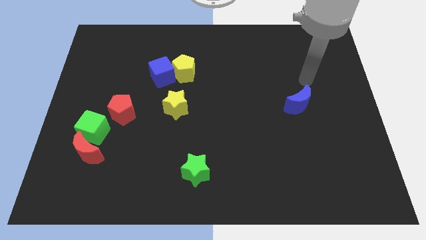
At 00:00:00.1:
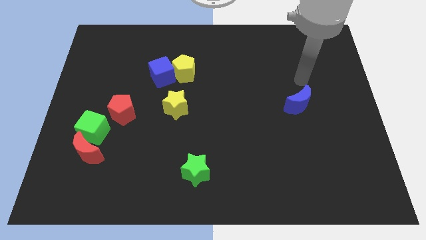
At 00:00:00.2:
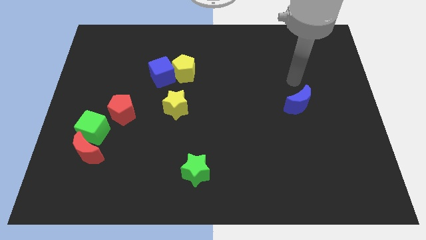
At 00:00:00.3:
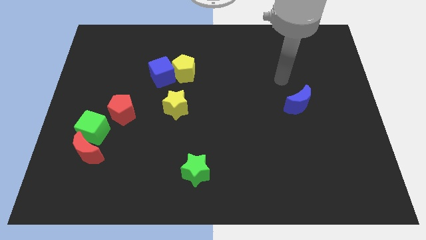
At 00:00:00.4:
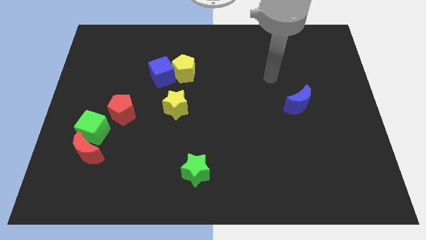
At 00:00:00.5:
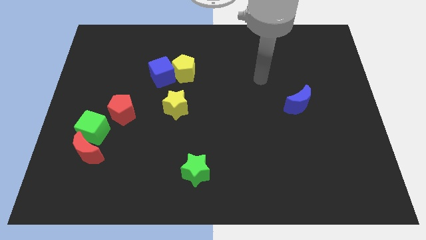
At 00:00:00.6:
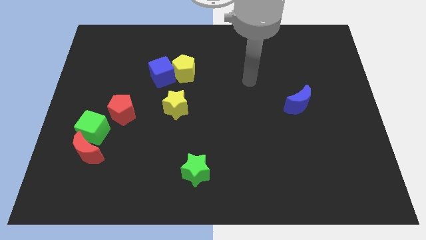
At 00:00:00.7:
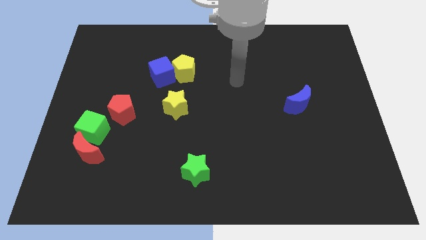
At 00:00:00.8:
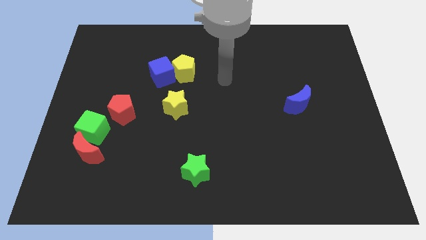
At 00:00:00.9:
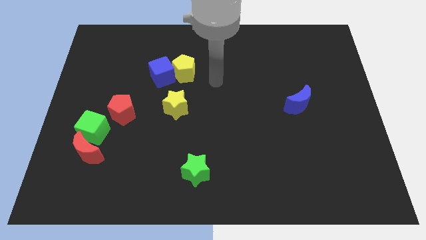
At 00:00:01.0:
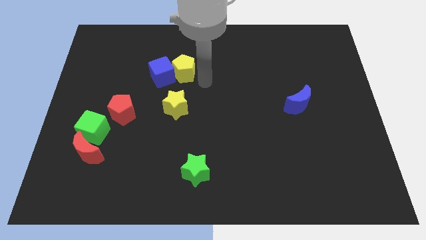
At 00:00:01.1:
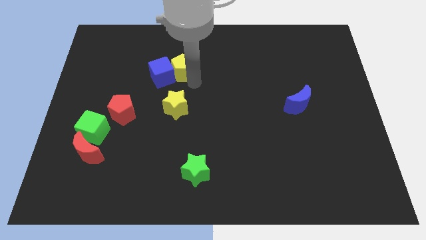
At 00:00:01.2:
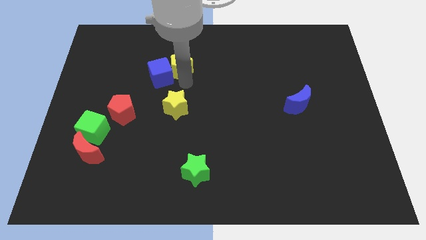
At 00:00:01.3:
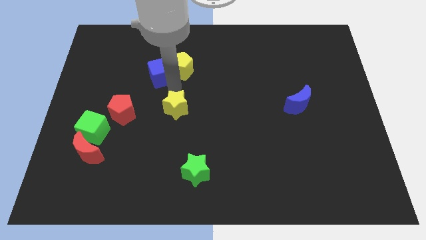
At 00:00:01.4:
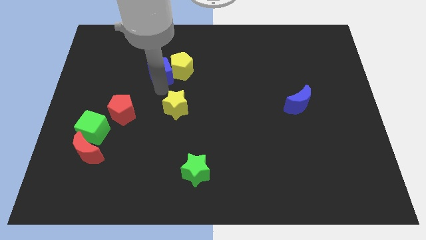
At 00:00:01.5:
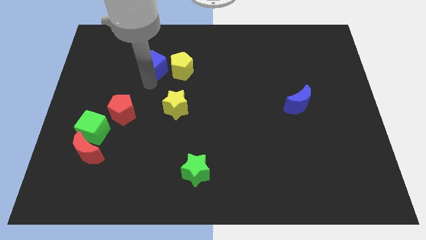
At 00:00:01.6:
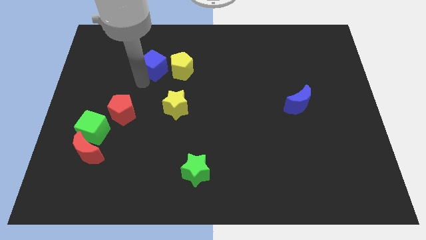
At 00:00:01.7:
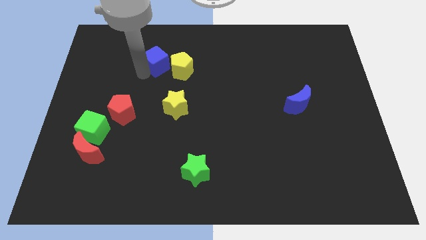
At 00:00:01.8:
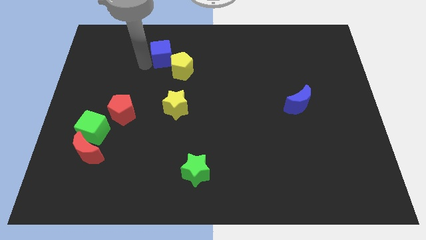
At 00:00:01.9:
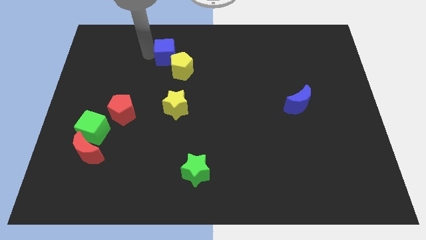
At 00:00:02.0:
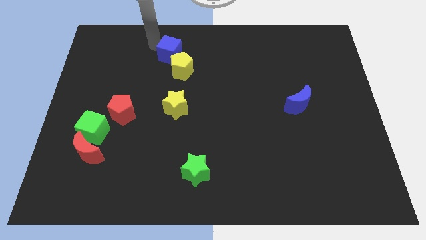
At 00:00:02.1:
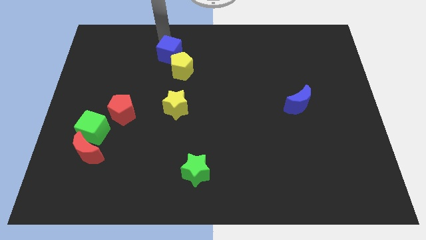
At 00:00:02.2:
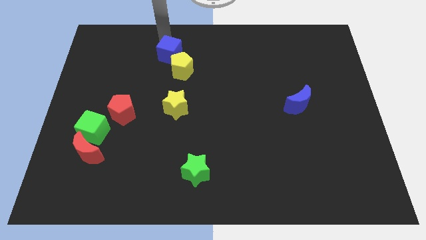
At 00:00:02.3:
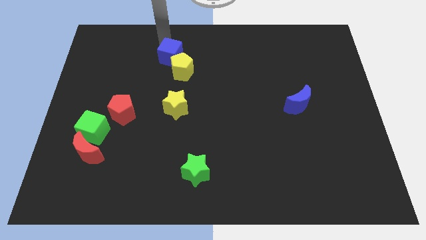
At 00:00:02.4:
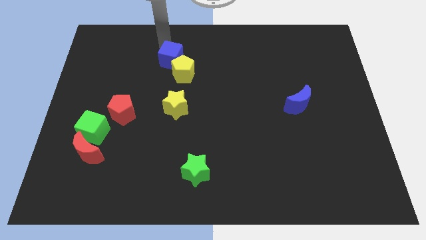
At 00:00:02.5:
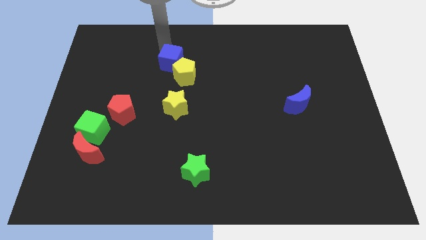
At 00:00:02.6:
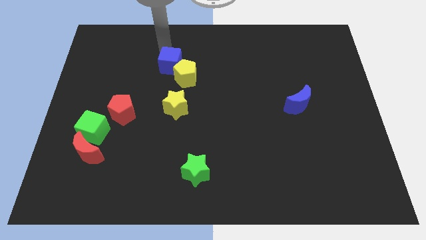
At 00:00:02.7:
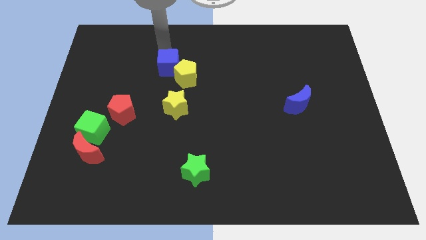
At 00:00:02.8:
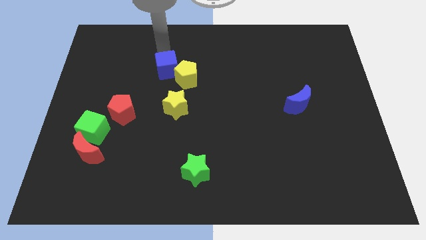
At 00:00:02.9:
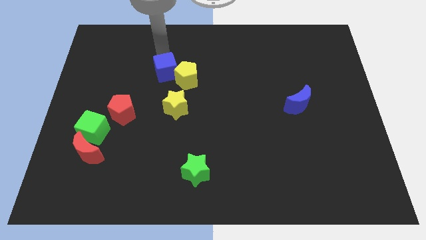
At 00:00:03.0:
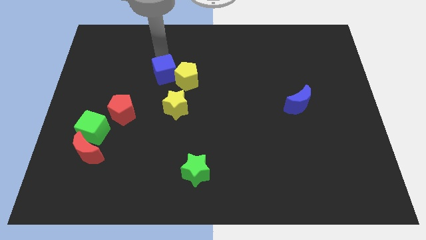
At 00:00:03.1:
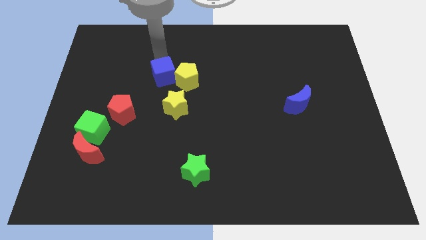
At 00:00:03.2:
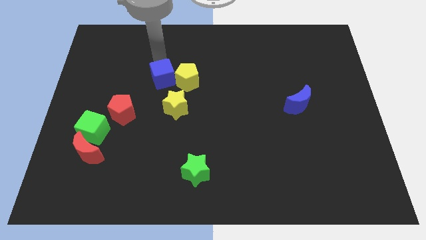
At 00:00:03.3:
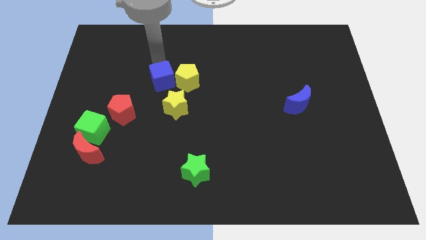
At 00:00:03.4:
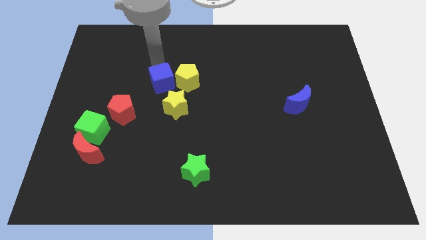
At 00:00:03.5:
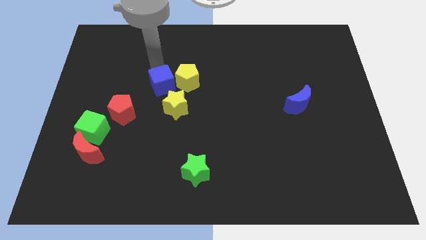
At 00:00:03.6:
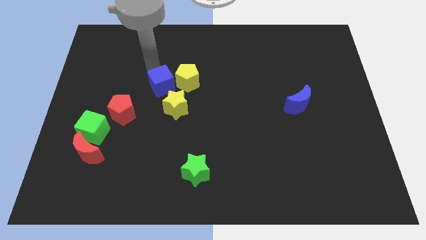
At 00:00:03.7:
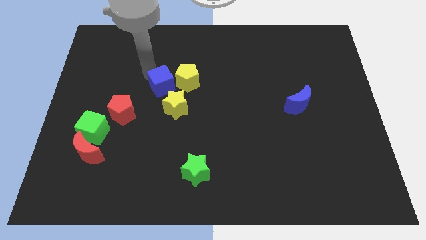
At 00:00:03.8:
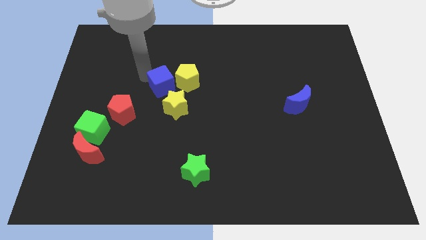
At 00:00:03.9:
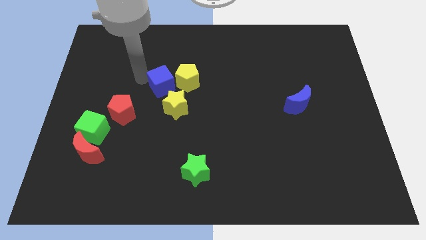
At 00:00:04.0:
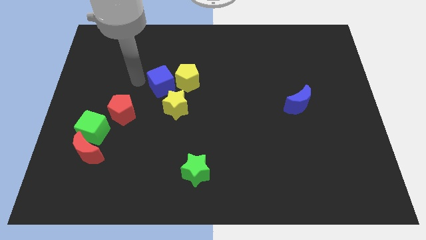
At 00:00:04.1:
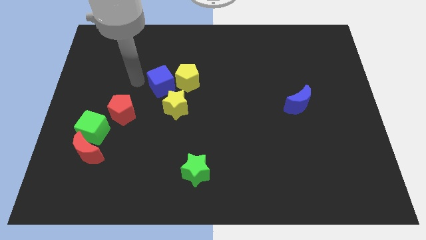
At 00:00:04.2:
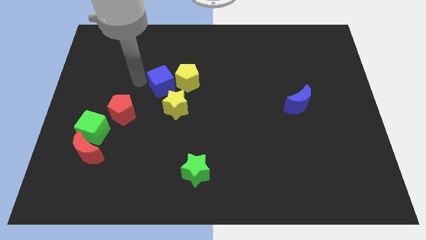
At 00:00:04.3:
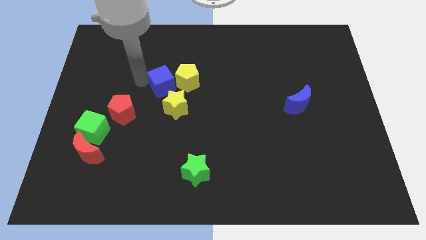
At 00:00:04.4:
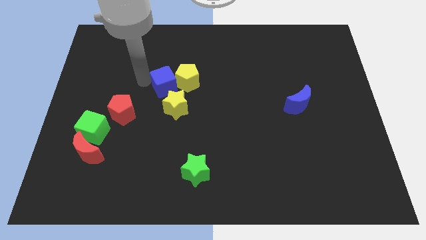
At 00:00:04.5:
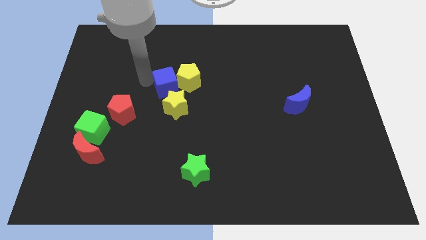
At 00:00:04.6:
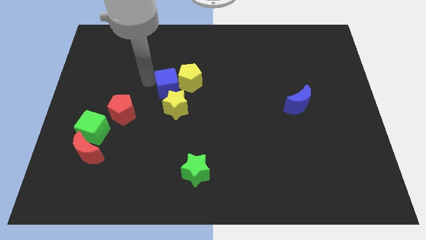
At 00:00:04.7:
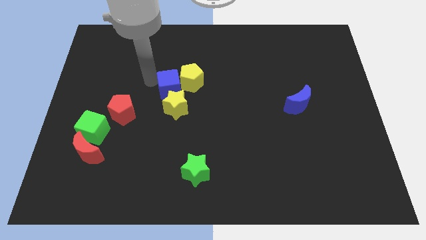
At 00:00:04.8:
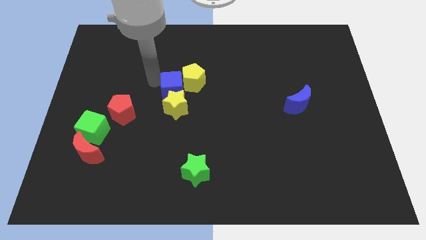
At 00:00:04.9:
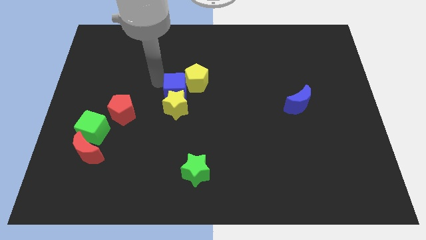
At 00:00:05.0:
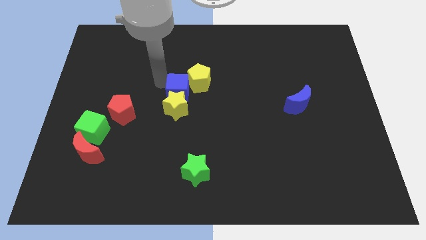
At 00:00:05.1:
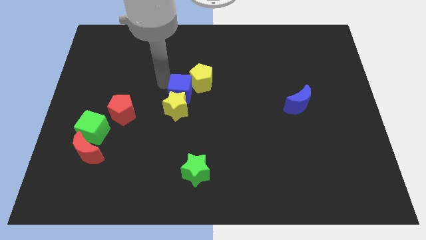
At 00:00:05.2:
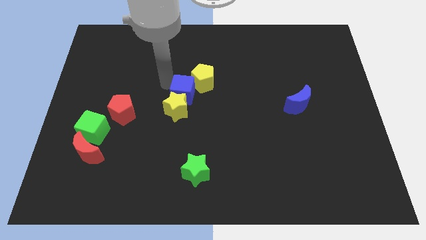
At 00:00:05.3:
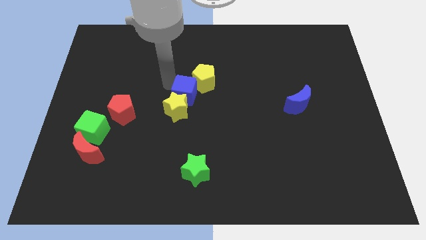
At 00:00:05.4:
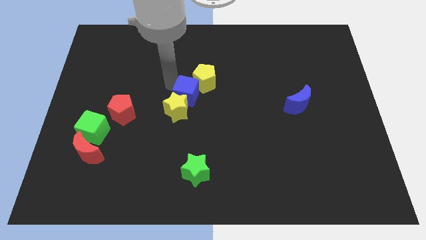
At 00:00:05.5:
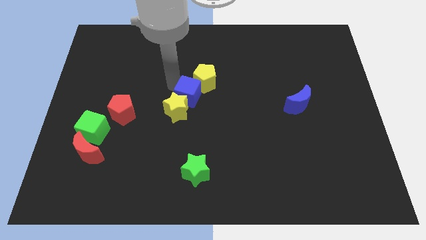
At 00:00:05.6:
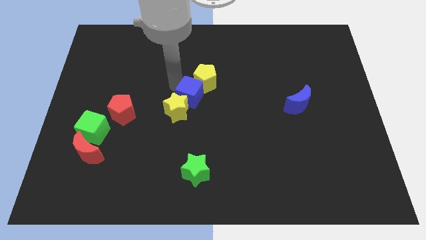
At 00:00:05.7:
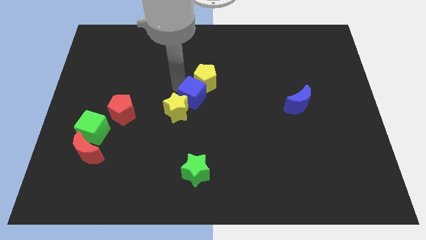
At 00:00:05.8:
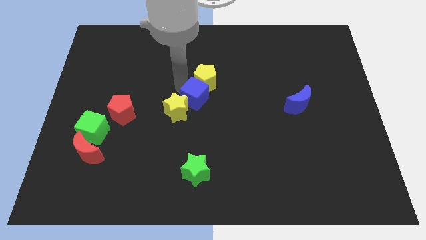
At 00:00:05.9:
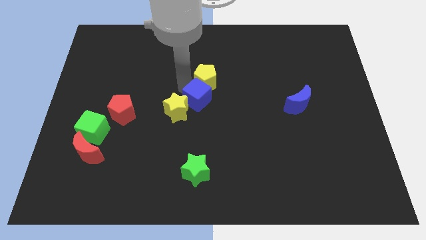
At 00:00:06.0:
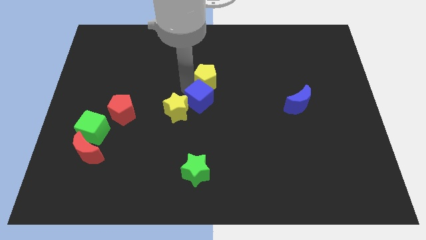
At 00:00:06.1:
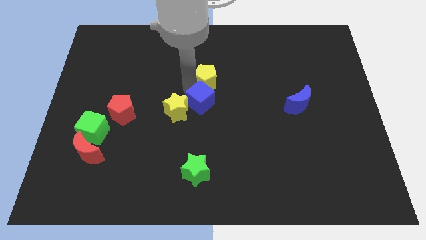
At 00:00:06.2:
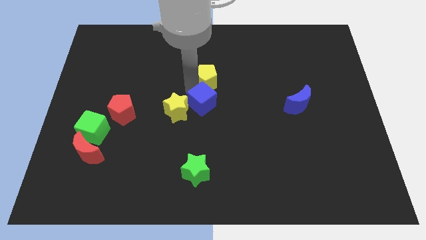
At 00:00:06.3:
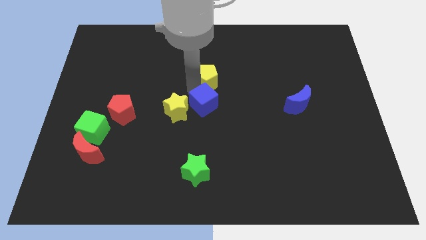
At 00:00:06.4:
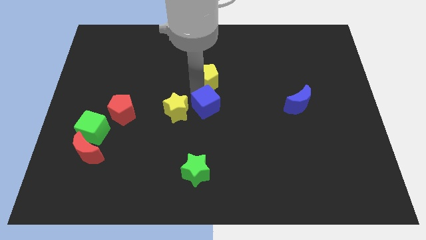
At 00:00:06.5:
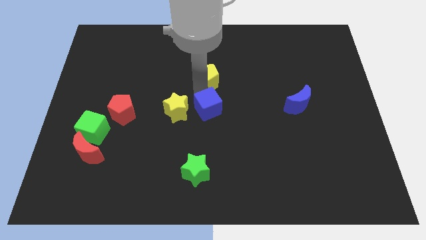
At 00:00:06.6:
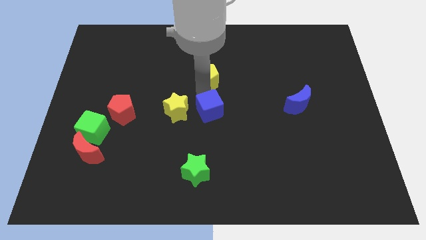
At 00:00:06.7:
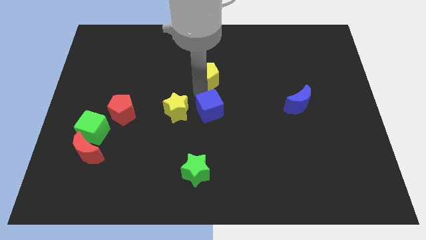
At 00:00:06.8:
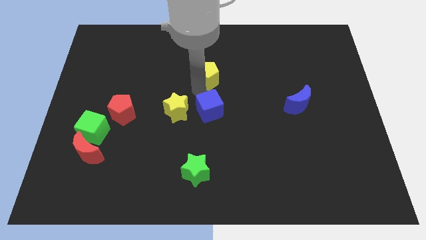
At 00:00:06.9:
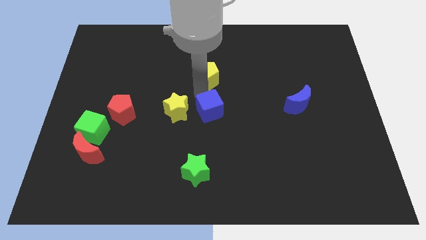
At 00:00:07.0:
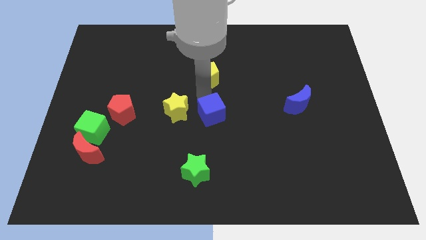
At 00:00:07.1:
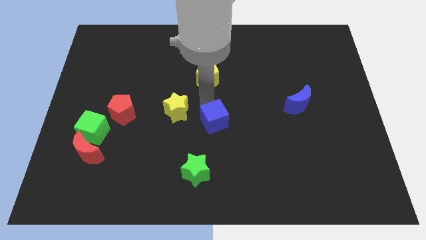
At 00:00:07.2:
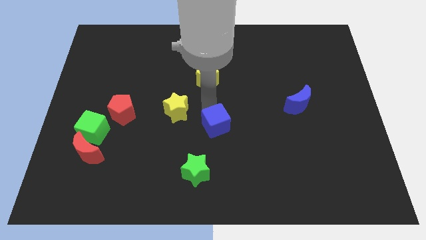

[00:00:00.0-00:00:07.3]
slide the blue cube down and right diagonally

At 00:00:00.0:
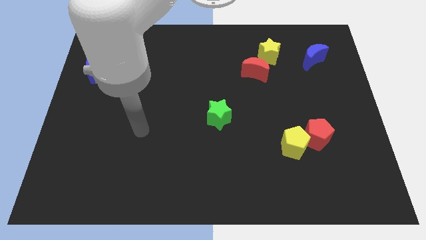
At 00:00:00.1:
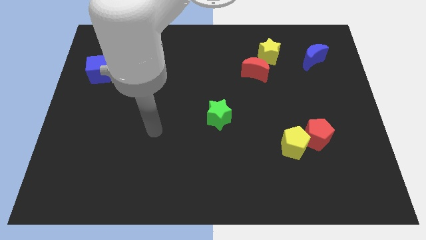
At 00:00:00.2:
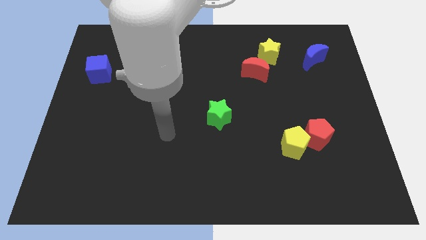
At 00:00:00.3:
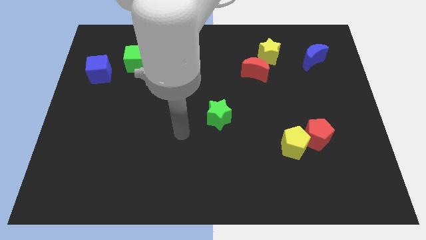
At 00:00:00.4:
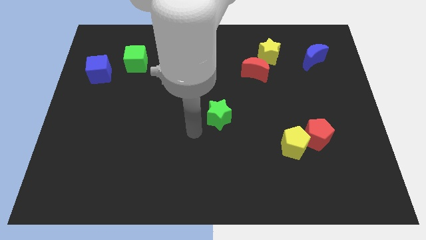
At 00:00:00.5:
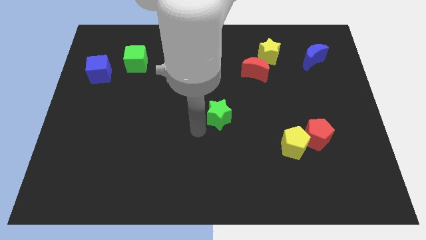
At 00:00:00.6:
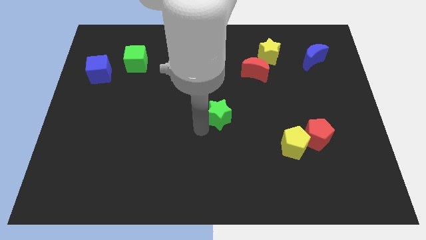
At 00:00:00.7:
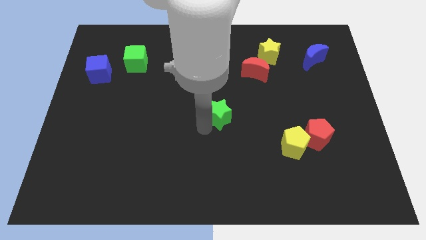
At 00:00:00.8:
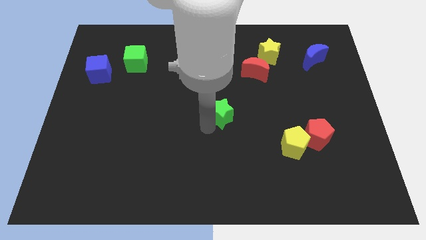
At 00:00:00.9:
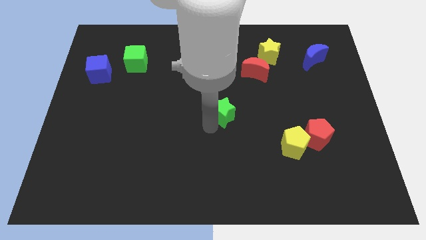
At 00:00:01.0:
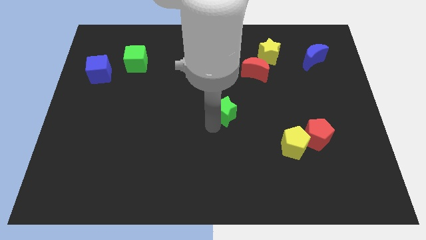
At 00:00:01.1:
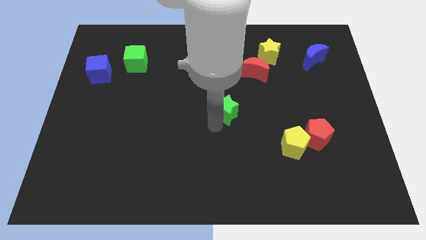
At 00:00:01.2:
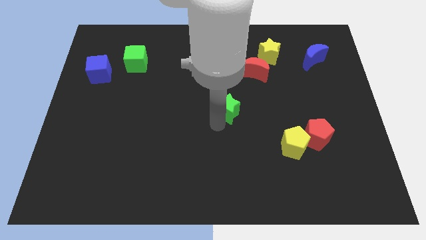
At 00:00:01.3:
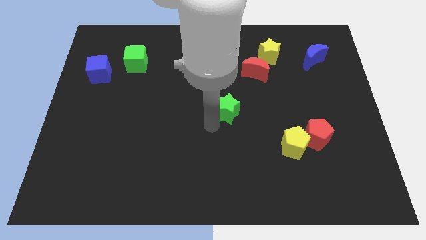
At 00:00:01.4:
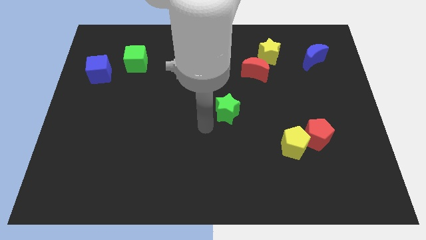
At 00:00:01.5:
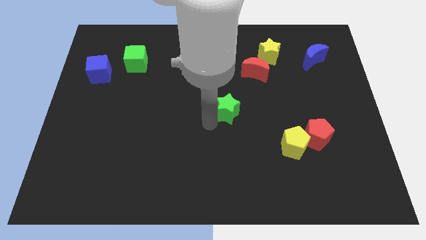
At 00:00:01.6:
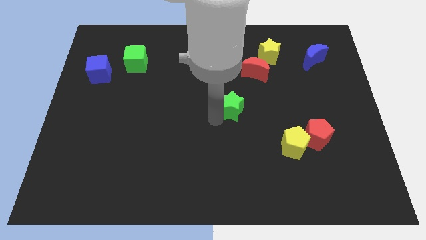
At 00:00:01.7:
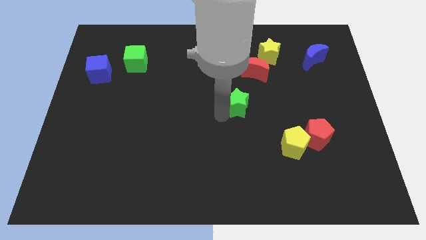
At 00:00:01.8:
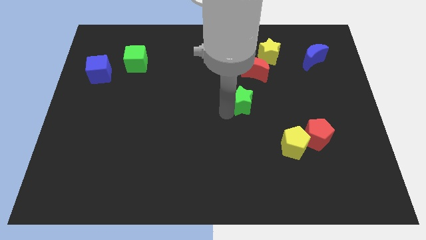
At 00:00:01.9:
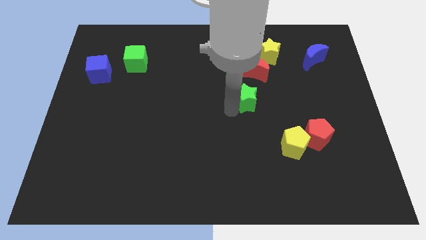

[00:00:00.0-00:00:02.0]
move the green star diagonally upwards and to the right a little bit
